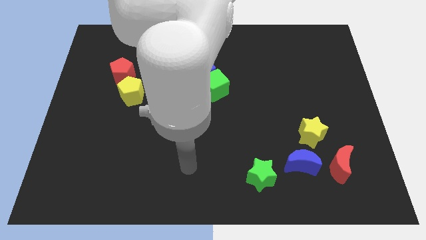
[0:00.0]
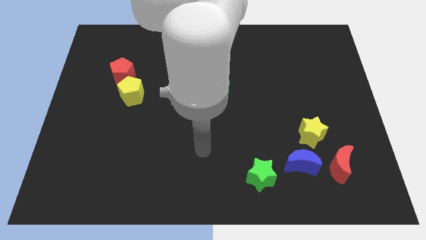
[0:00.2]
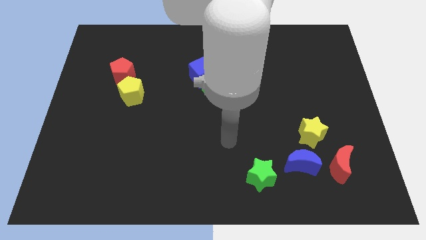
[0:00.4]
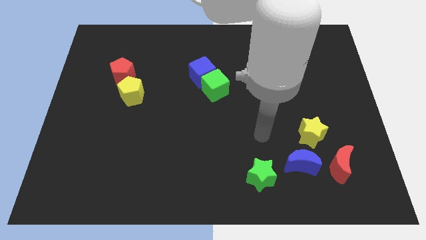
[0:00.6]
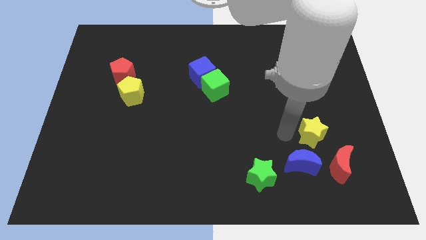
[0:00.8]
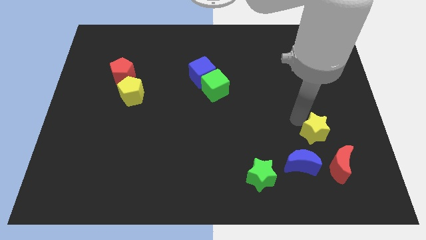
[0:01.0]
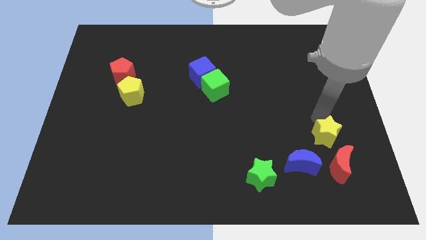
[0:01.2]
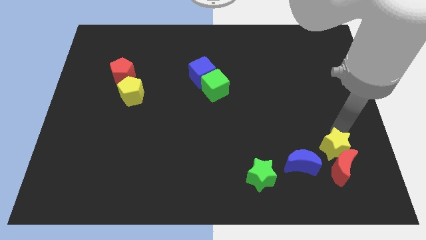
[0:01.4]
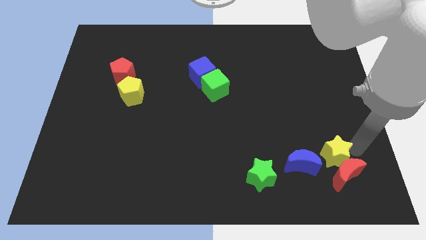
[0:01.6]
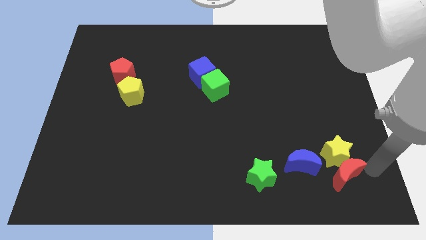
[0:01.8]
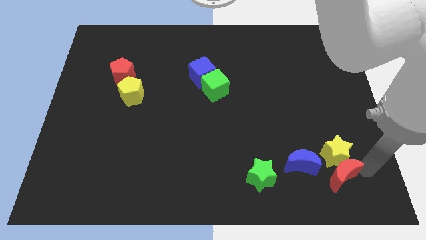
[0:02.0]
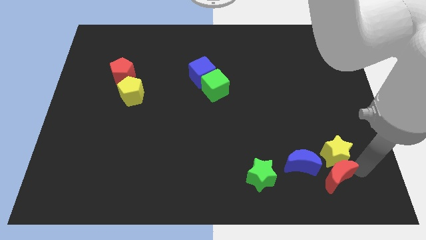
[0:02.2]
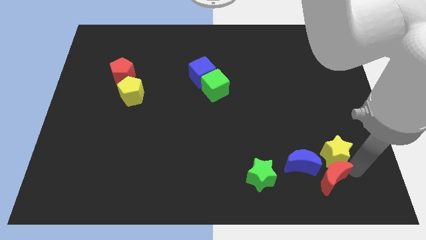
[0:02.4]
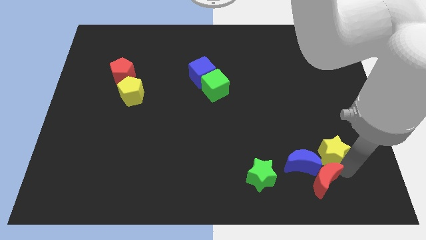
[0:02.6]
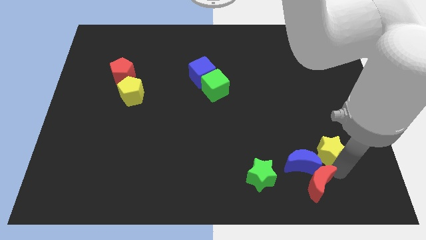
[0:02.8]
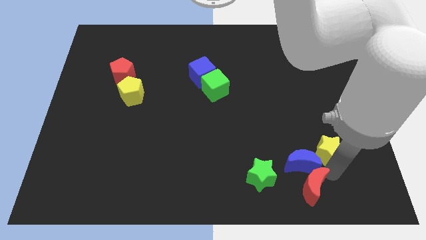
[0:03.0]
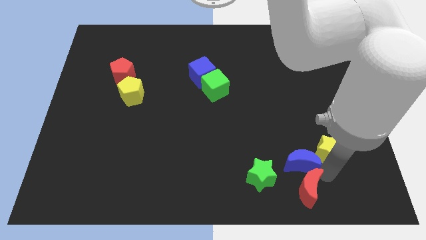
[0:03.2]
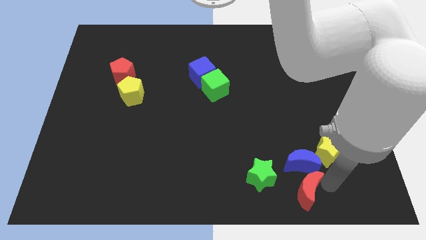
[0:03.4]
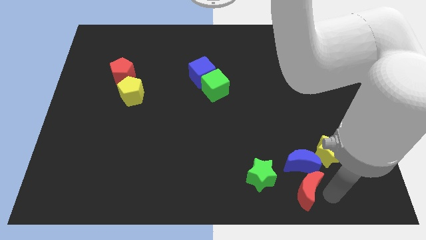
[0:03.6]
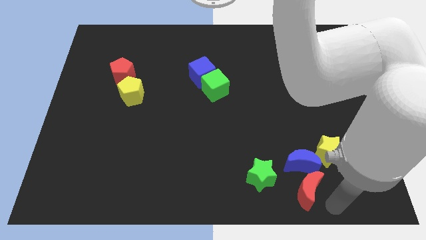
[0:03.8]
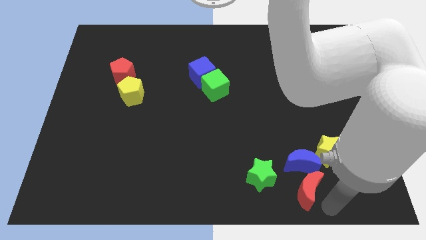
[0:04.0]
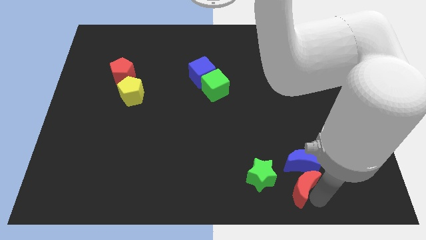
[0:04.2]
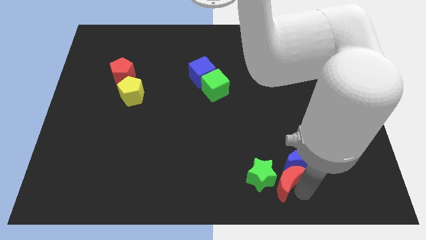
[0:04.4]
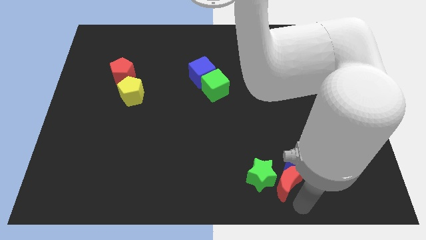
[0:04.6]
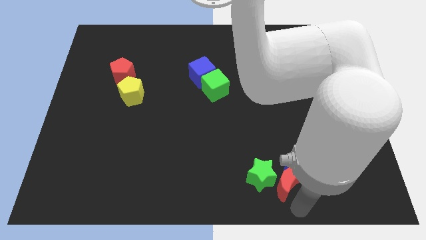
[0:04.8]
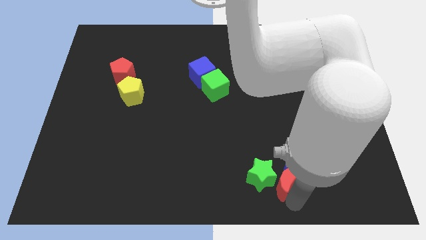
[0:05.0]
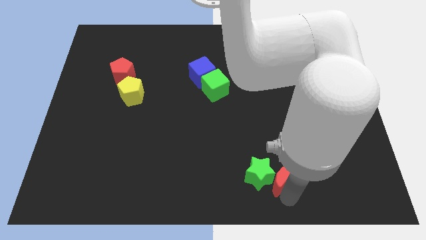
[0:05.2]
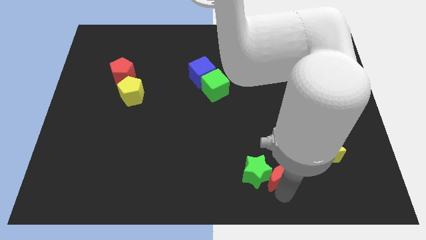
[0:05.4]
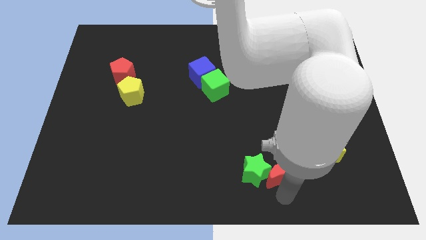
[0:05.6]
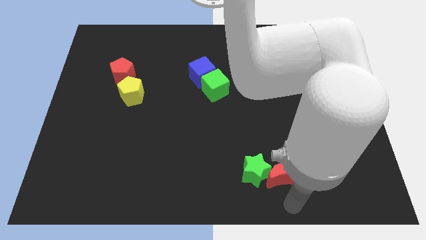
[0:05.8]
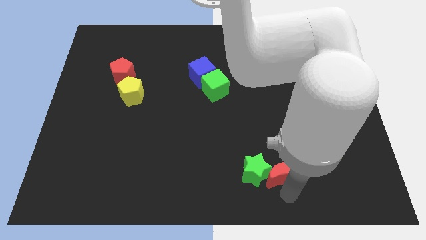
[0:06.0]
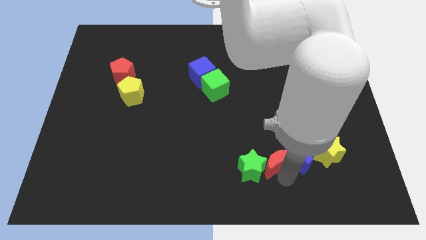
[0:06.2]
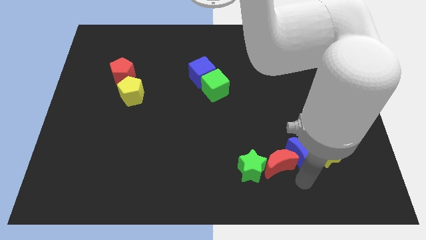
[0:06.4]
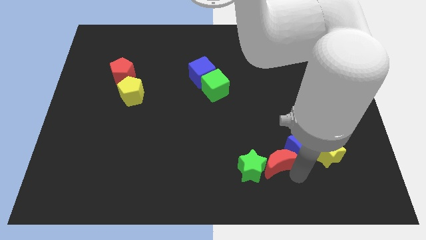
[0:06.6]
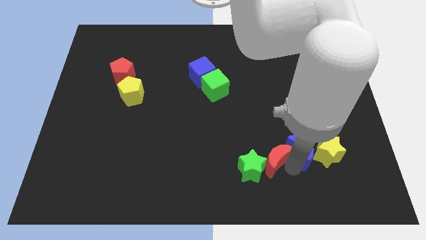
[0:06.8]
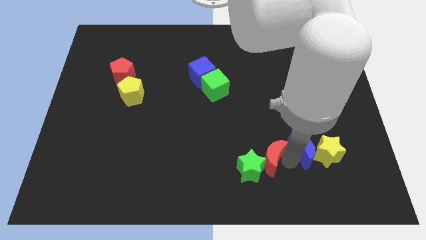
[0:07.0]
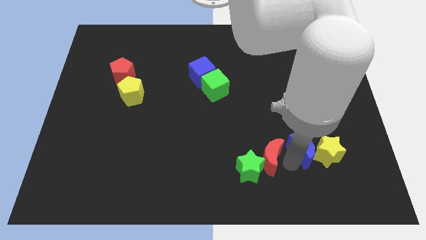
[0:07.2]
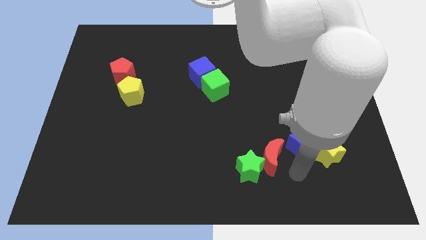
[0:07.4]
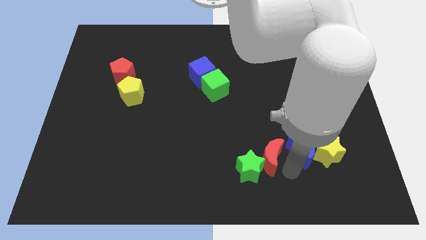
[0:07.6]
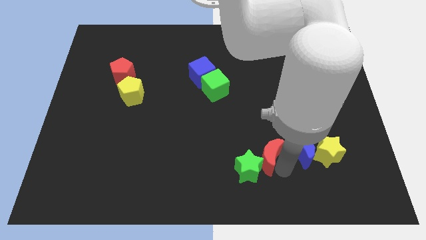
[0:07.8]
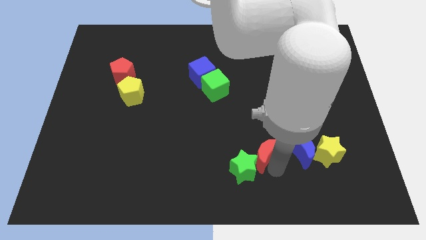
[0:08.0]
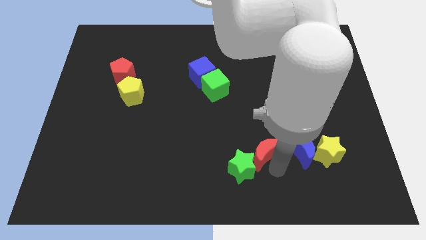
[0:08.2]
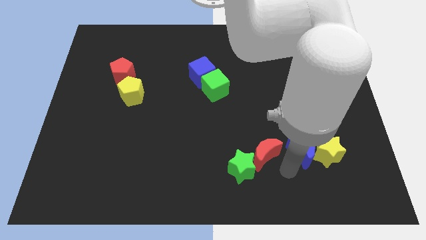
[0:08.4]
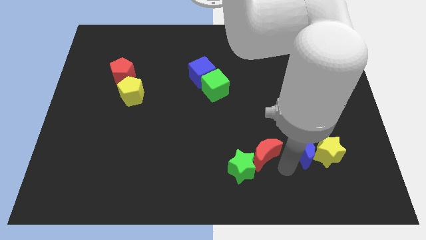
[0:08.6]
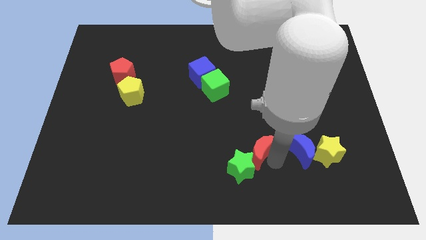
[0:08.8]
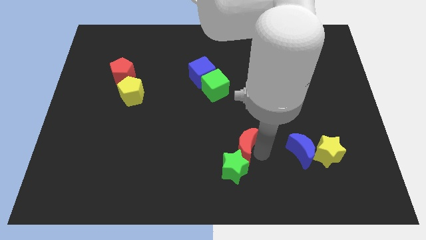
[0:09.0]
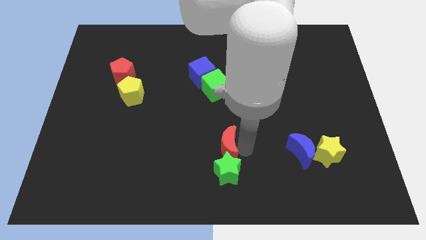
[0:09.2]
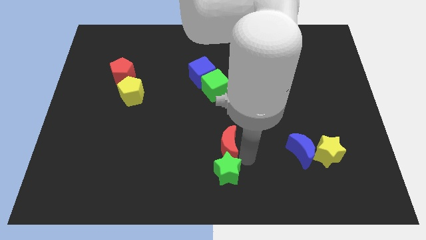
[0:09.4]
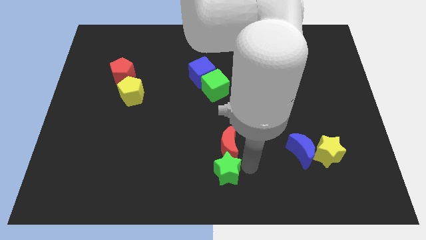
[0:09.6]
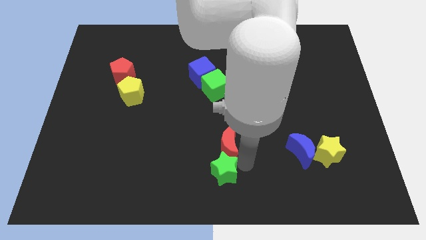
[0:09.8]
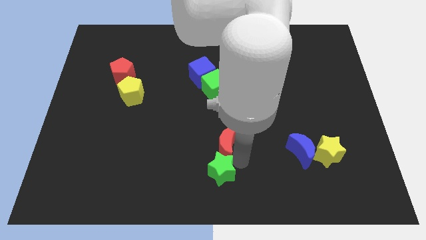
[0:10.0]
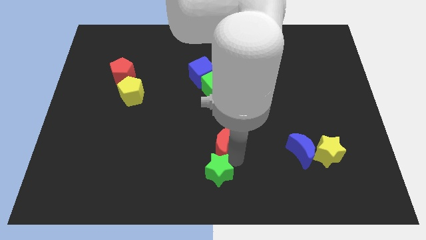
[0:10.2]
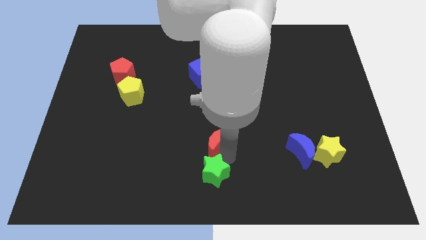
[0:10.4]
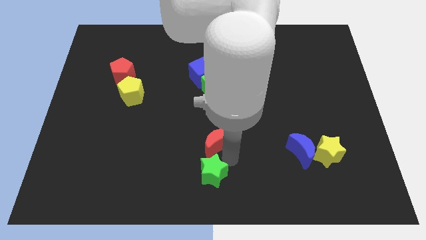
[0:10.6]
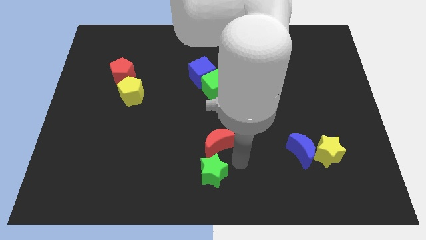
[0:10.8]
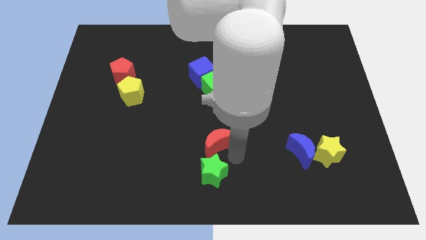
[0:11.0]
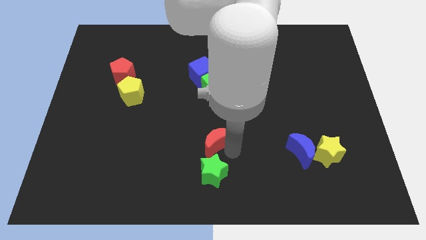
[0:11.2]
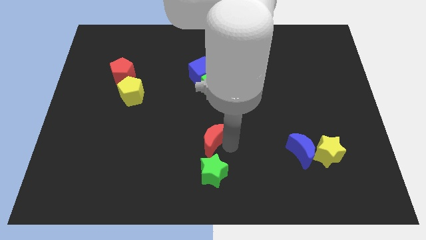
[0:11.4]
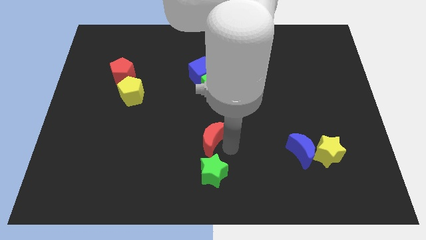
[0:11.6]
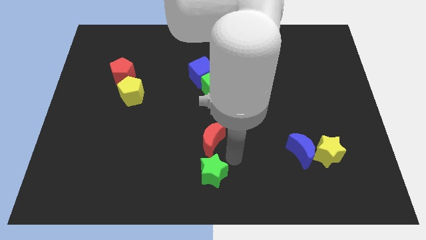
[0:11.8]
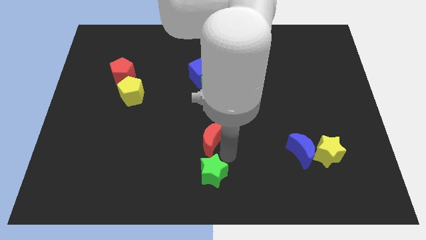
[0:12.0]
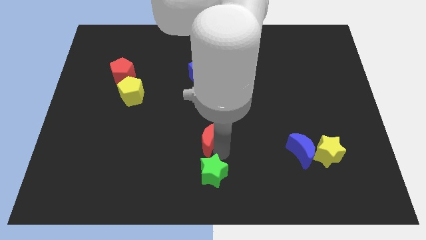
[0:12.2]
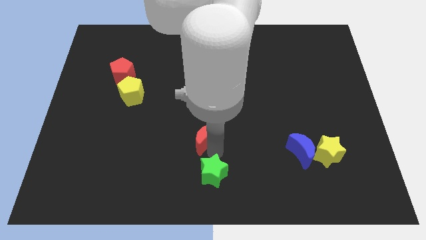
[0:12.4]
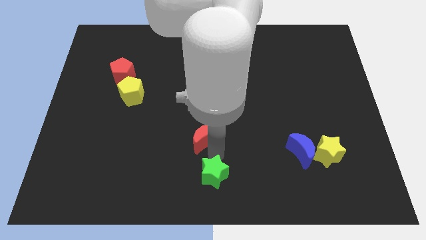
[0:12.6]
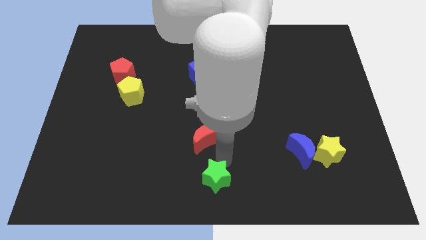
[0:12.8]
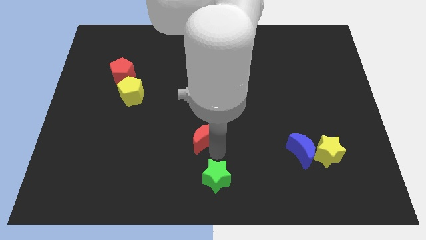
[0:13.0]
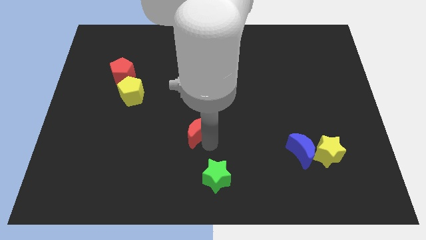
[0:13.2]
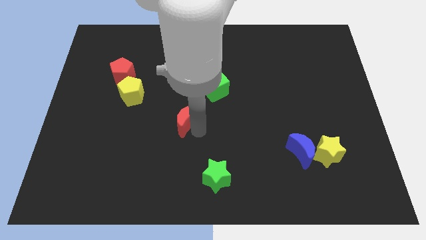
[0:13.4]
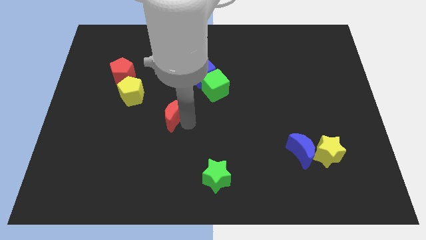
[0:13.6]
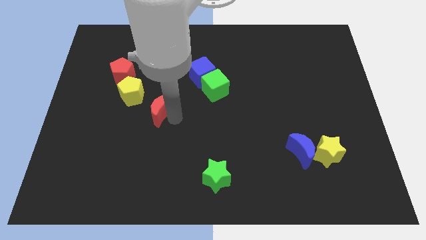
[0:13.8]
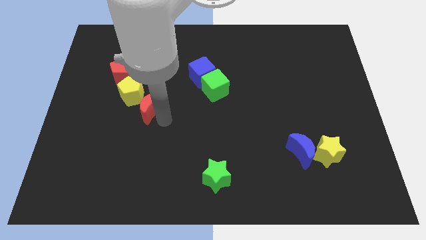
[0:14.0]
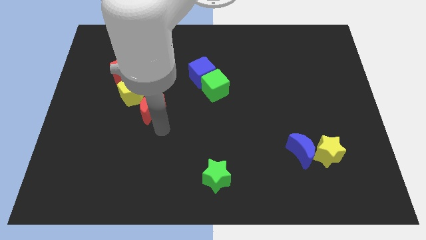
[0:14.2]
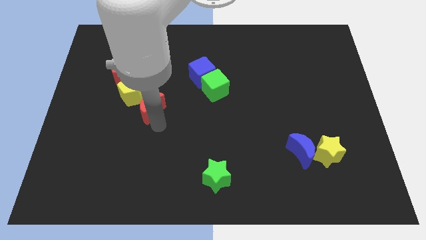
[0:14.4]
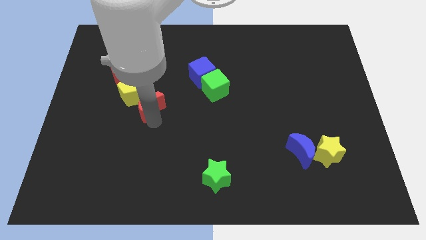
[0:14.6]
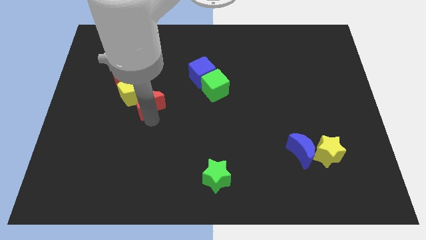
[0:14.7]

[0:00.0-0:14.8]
push the red moon to the bottom right of the red pentagon
